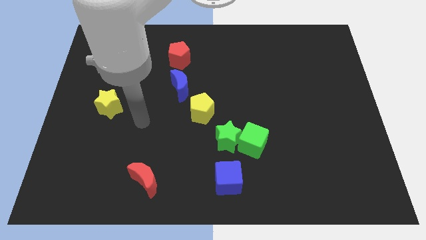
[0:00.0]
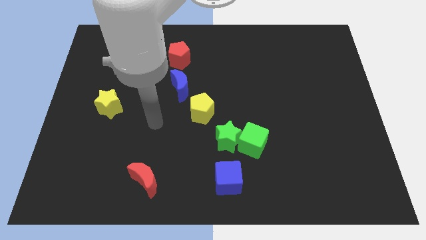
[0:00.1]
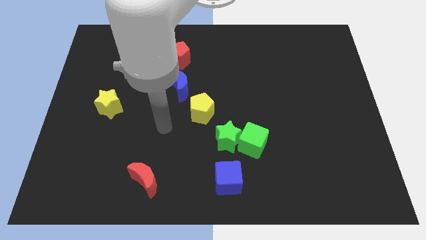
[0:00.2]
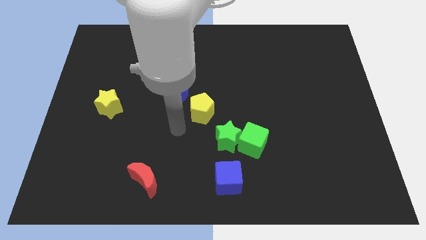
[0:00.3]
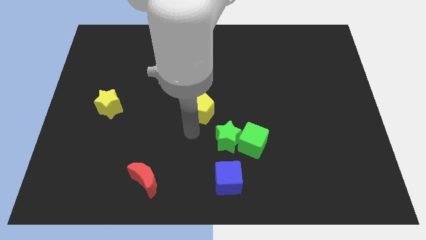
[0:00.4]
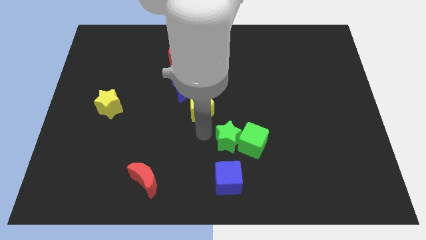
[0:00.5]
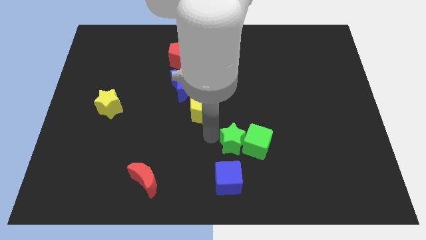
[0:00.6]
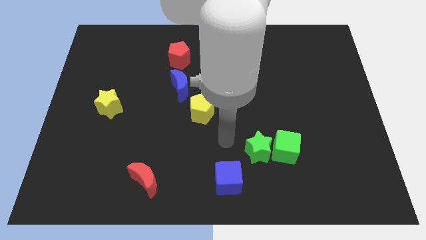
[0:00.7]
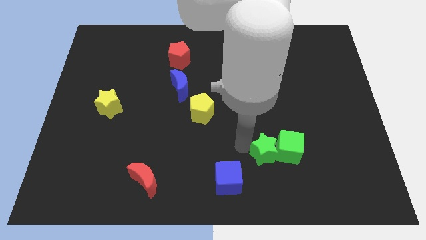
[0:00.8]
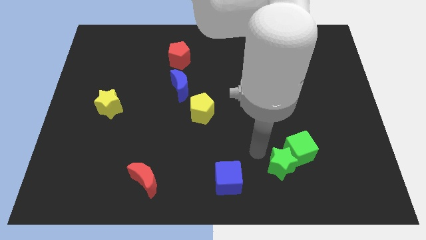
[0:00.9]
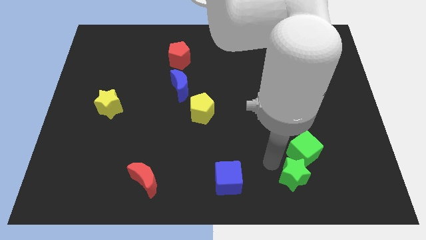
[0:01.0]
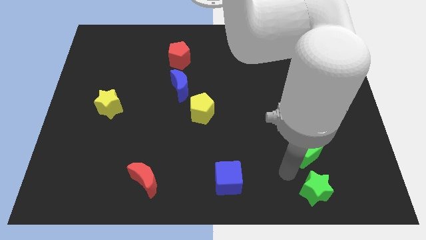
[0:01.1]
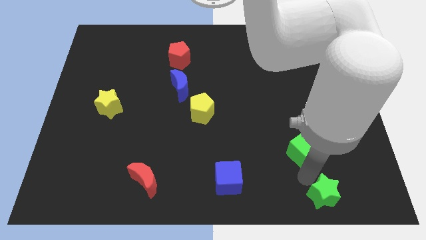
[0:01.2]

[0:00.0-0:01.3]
pull the green cube apart from the green star

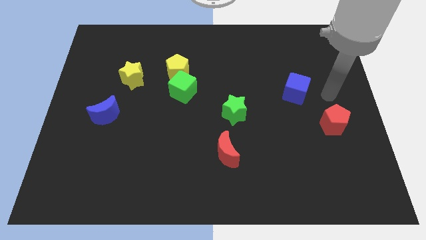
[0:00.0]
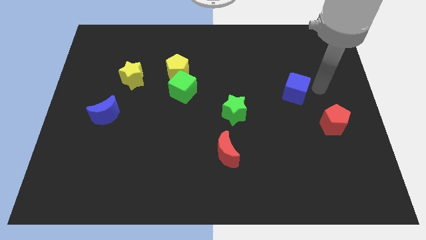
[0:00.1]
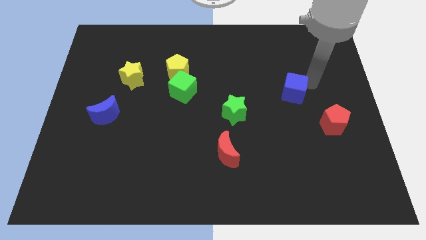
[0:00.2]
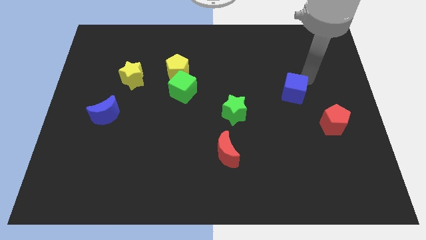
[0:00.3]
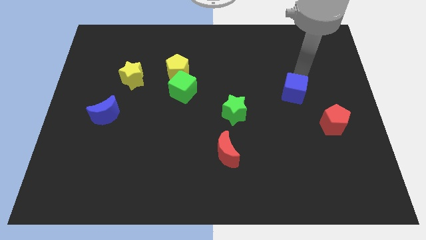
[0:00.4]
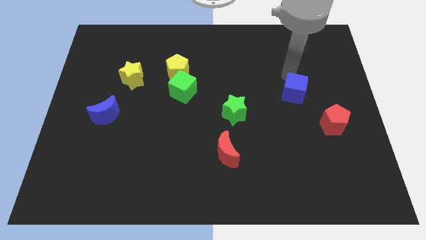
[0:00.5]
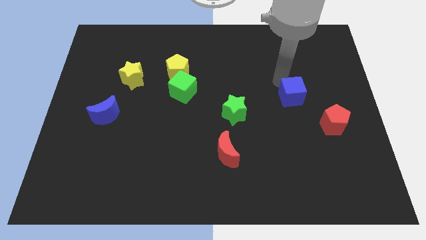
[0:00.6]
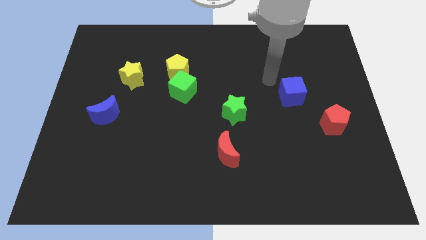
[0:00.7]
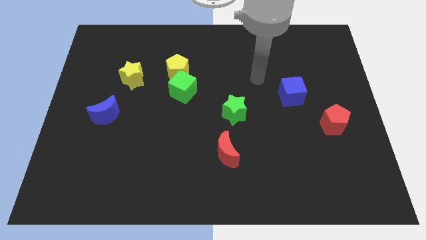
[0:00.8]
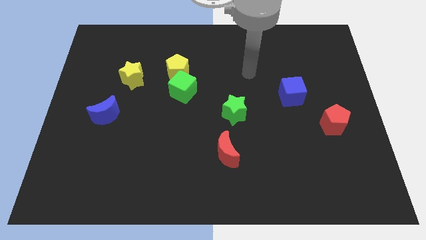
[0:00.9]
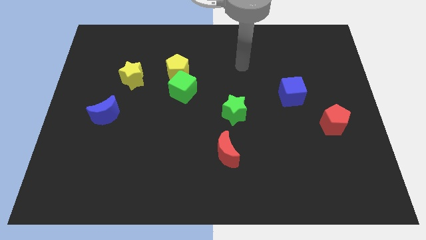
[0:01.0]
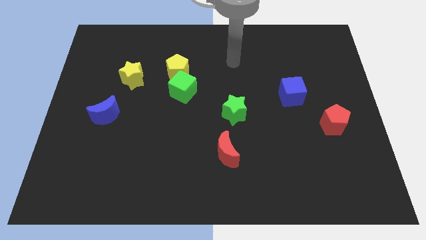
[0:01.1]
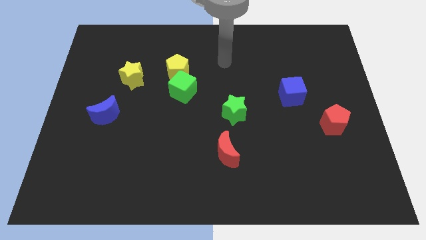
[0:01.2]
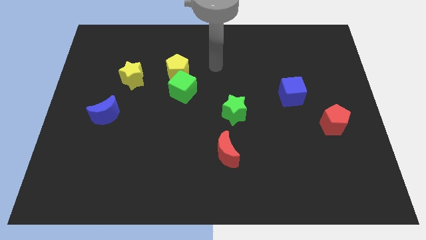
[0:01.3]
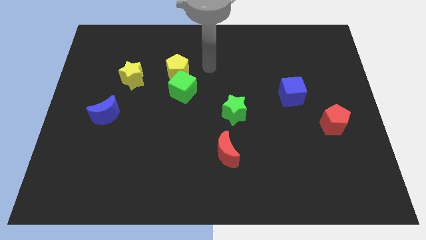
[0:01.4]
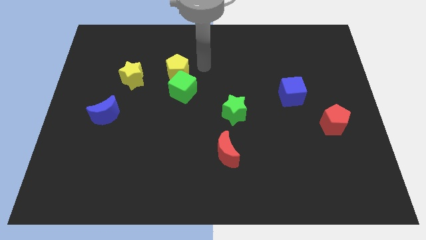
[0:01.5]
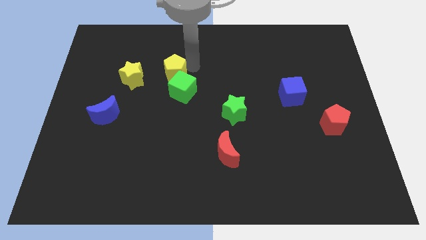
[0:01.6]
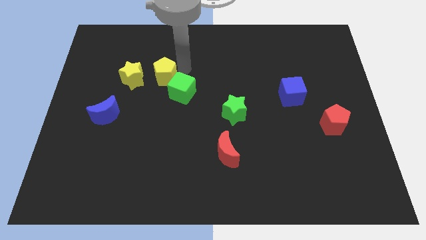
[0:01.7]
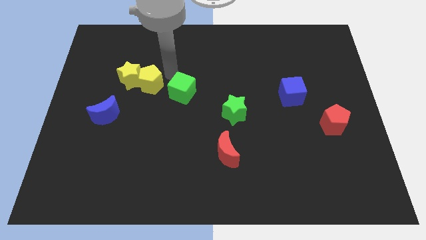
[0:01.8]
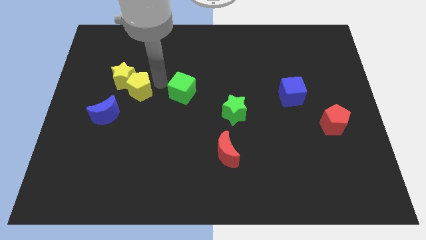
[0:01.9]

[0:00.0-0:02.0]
pull the green cube apart from the yellow pentagon

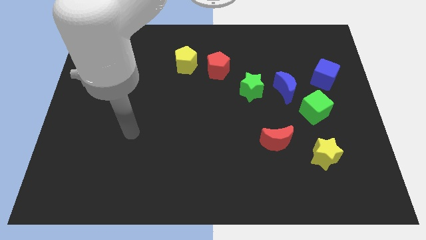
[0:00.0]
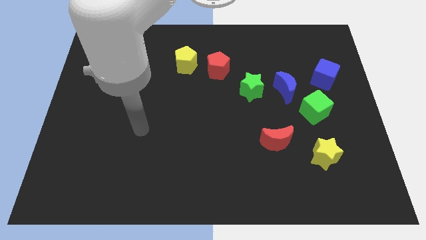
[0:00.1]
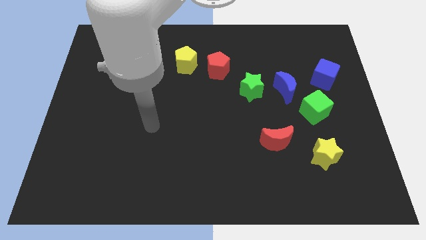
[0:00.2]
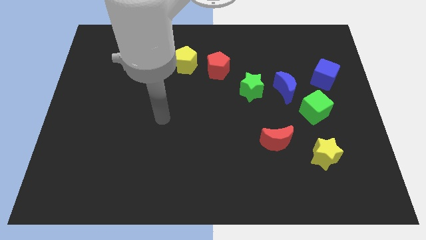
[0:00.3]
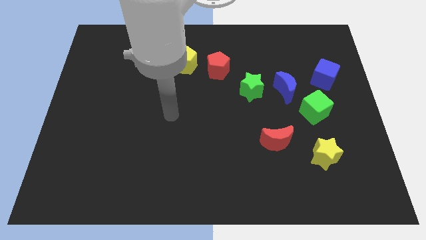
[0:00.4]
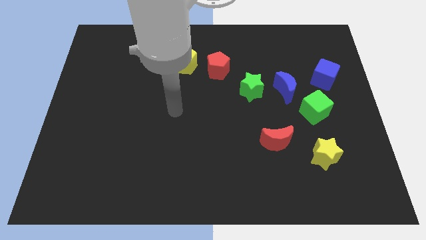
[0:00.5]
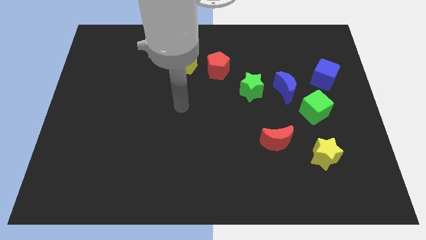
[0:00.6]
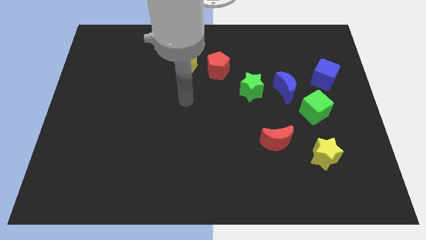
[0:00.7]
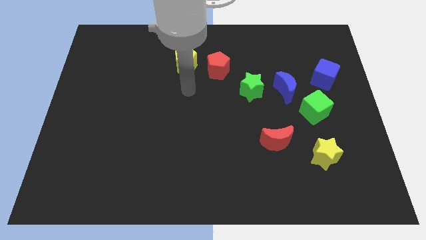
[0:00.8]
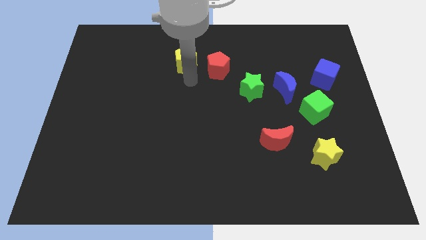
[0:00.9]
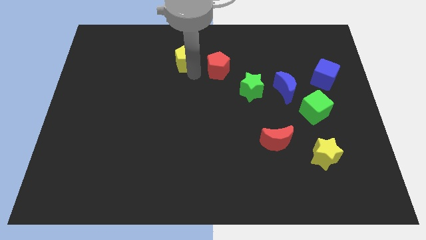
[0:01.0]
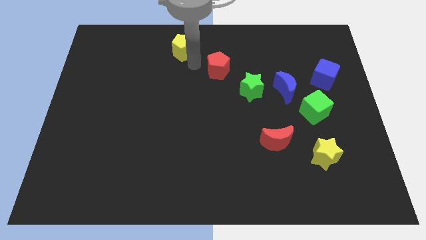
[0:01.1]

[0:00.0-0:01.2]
separate the red pentagon from the yellow pentagon

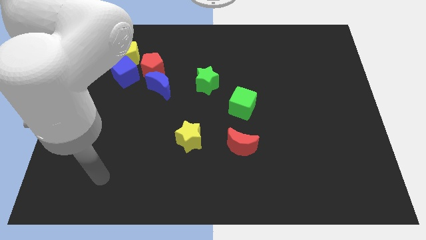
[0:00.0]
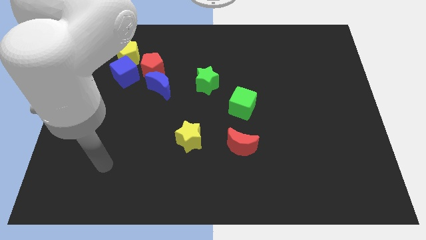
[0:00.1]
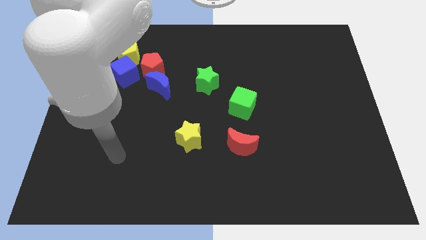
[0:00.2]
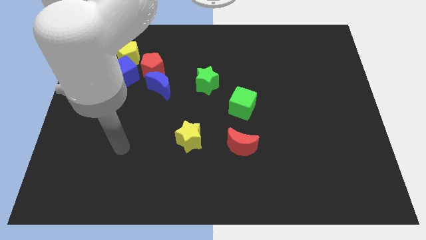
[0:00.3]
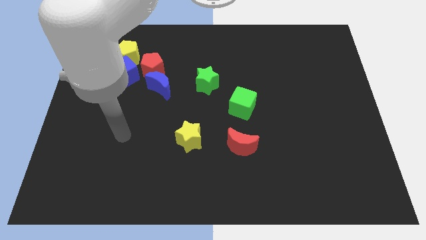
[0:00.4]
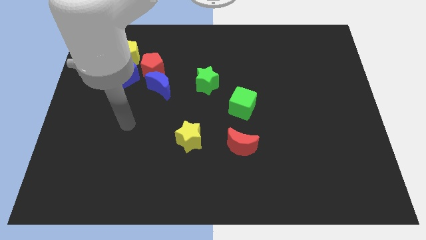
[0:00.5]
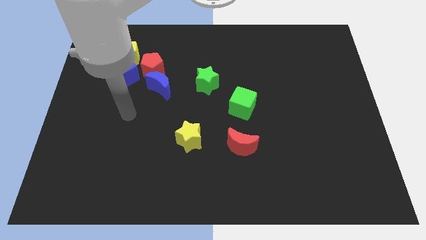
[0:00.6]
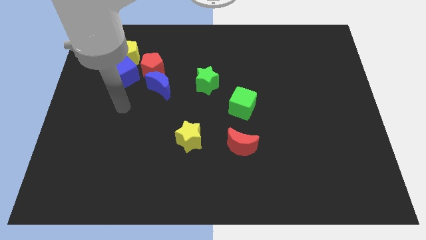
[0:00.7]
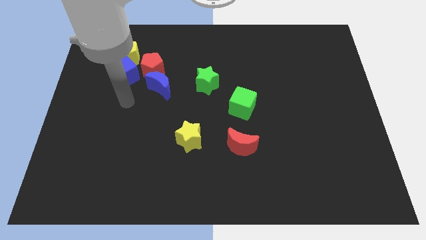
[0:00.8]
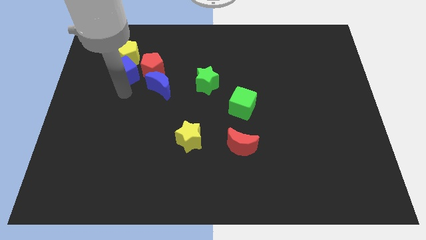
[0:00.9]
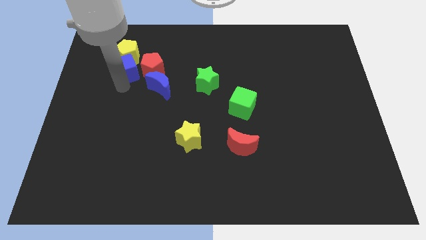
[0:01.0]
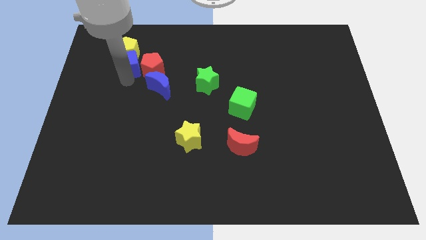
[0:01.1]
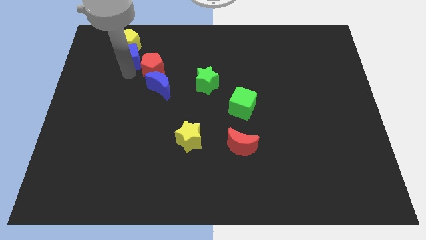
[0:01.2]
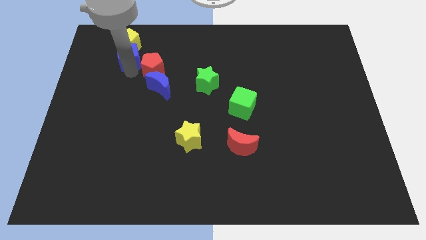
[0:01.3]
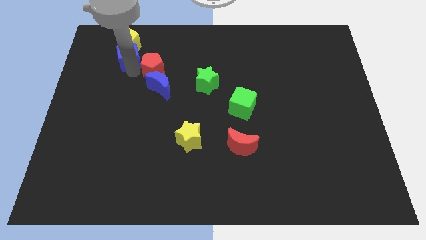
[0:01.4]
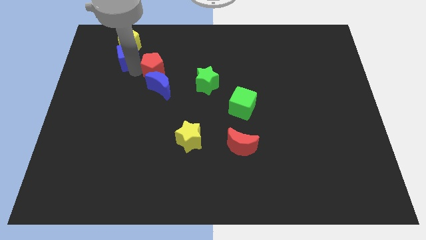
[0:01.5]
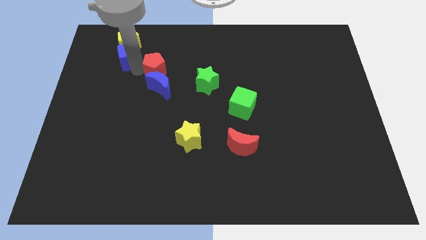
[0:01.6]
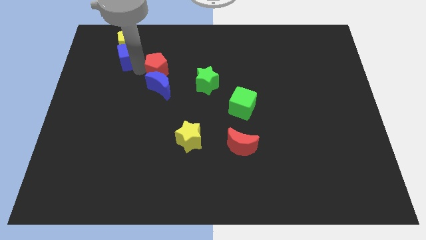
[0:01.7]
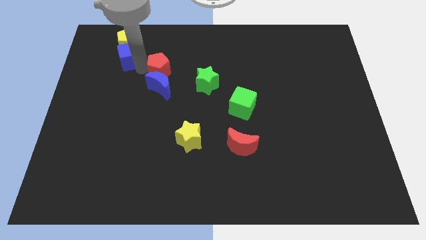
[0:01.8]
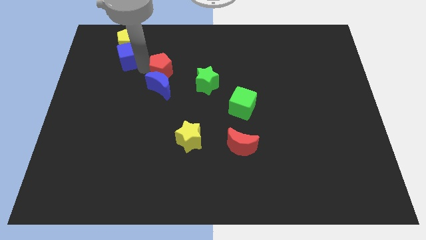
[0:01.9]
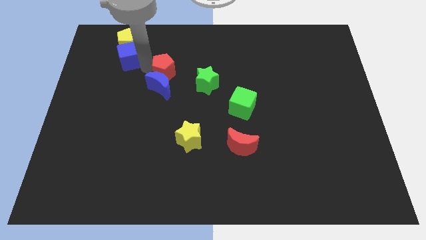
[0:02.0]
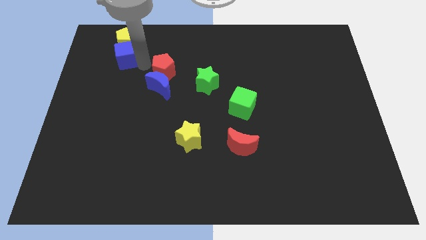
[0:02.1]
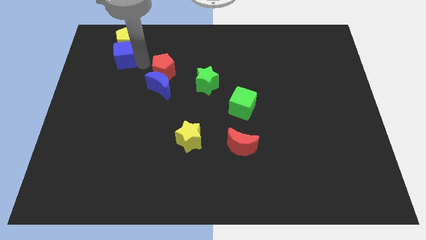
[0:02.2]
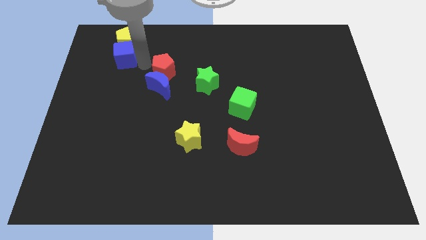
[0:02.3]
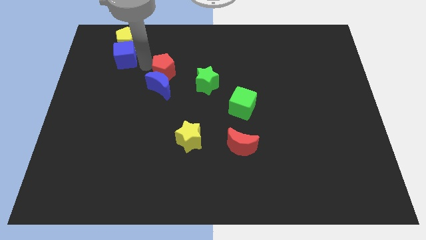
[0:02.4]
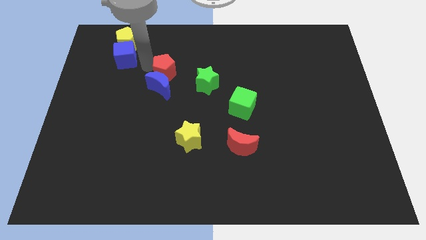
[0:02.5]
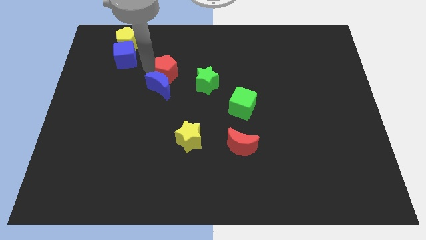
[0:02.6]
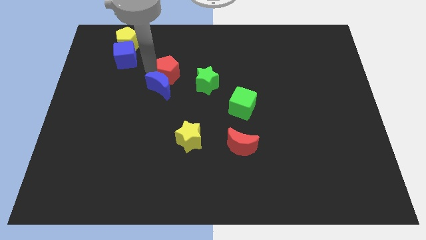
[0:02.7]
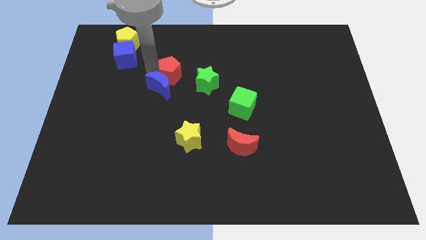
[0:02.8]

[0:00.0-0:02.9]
separate the red pentagon from the blue moon, blue cube, and yellow pentagon

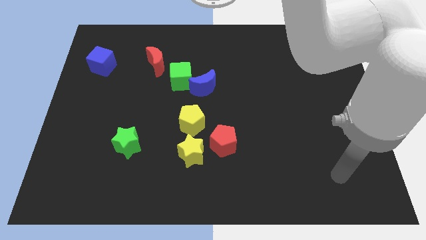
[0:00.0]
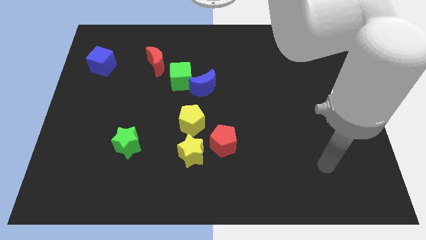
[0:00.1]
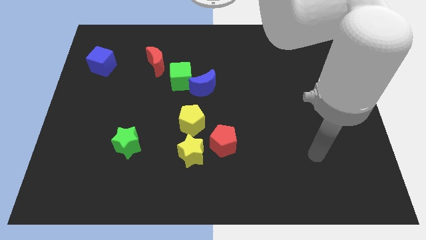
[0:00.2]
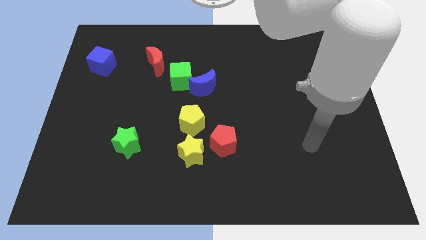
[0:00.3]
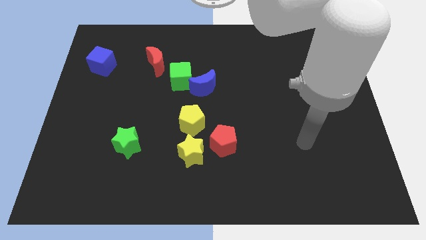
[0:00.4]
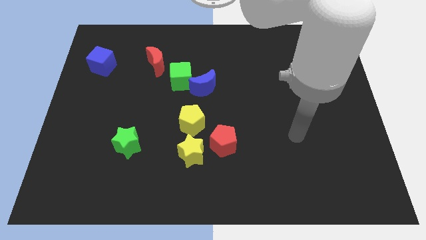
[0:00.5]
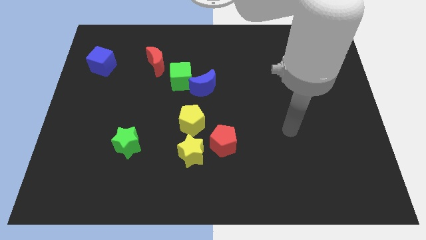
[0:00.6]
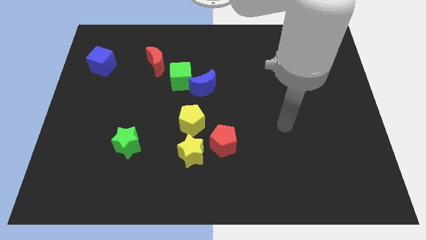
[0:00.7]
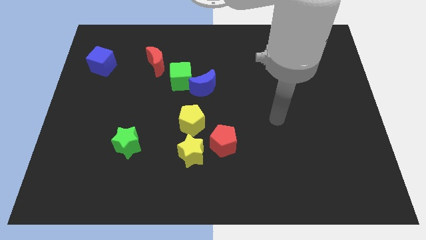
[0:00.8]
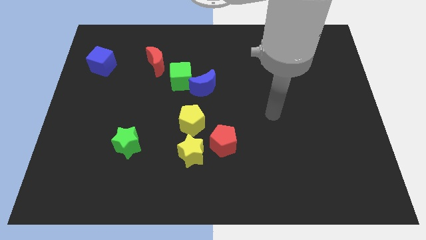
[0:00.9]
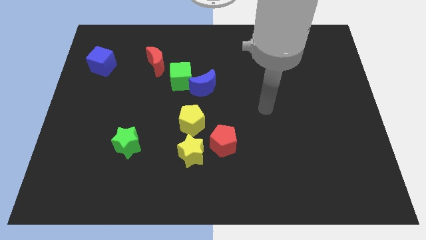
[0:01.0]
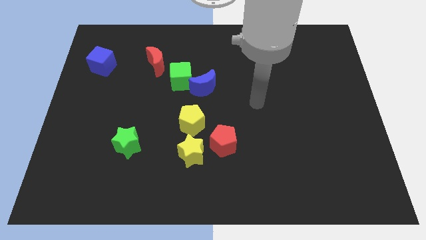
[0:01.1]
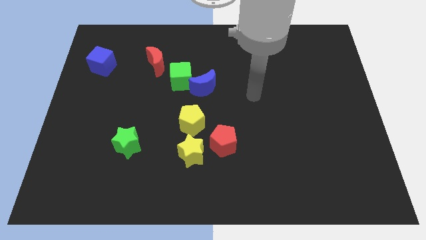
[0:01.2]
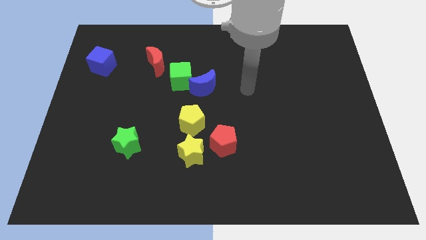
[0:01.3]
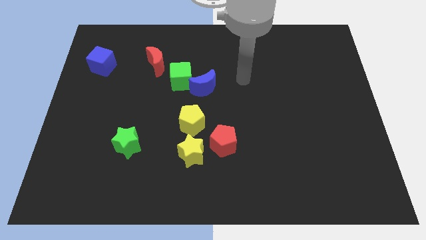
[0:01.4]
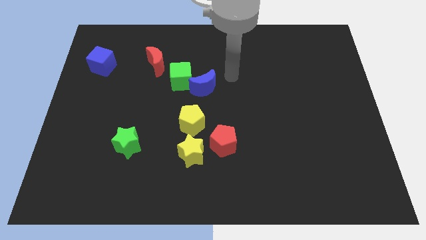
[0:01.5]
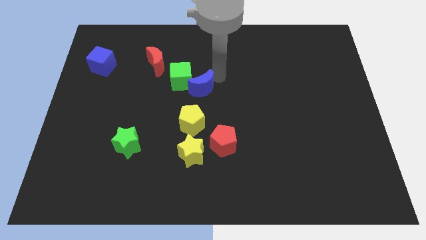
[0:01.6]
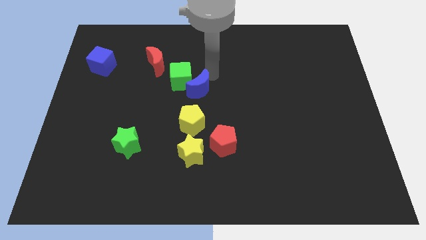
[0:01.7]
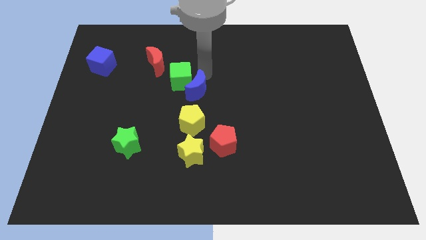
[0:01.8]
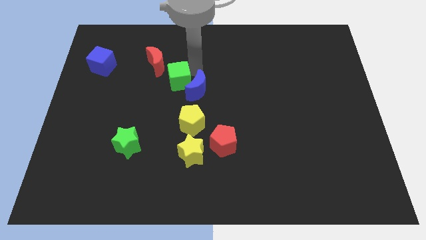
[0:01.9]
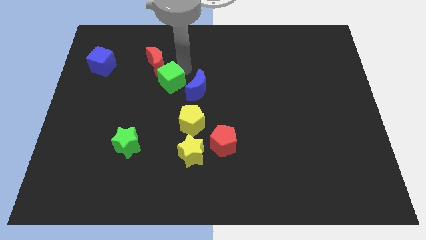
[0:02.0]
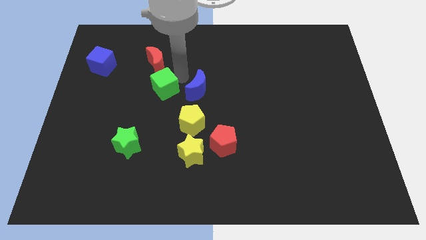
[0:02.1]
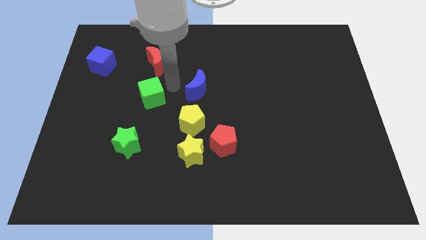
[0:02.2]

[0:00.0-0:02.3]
move the blue moon away from the green cube
